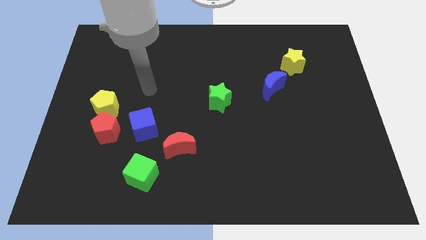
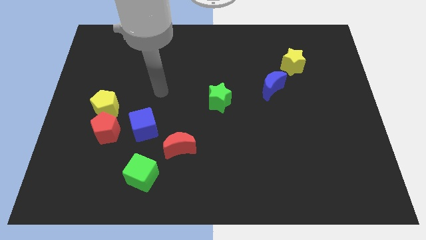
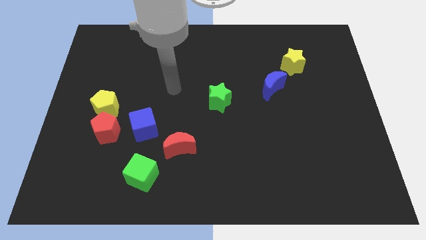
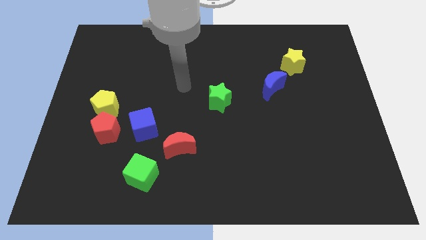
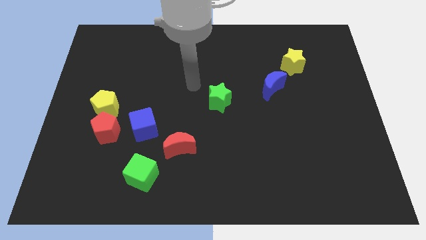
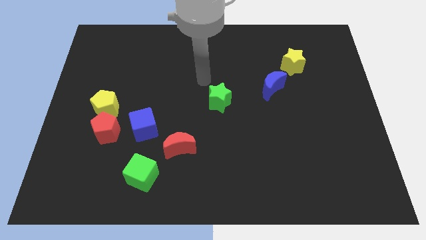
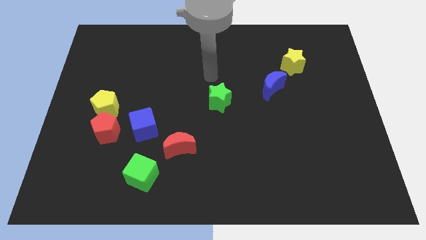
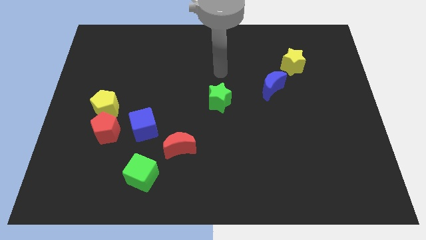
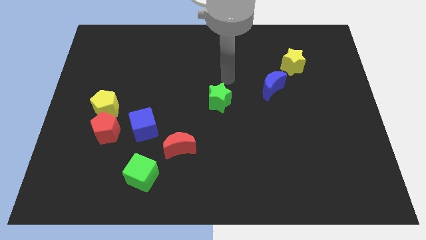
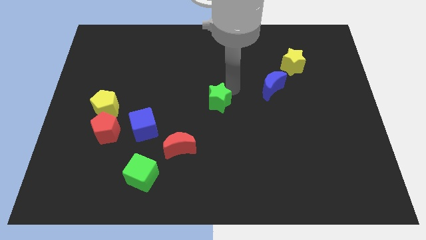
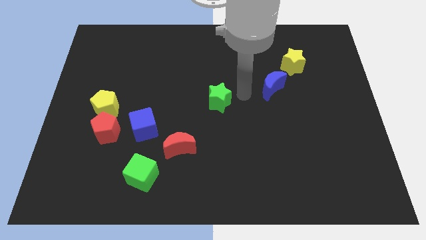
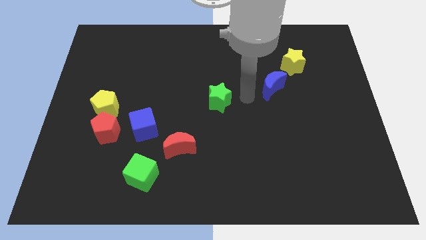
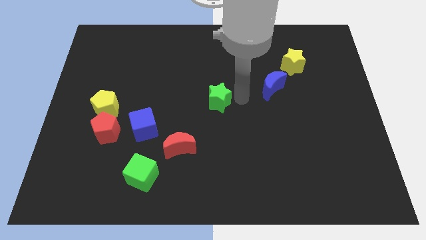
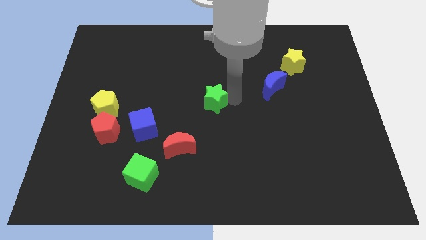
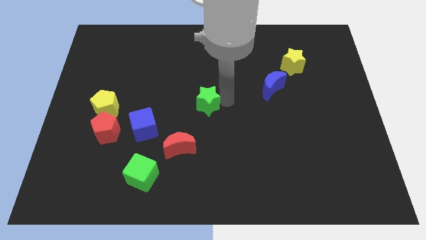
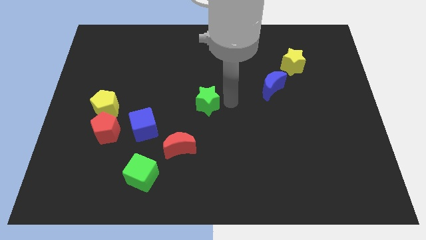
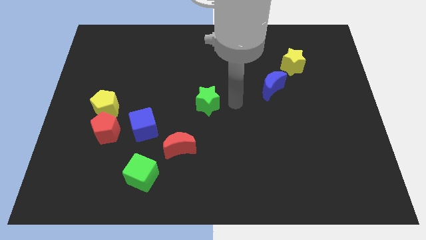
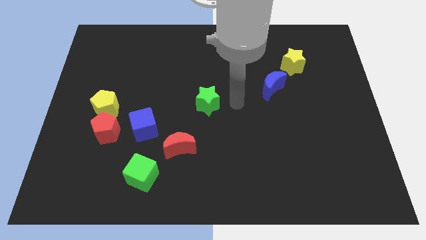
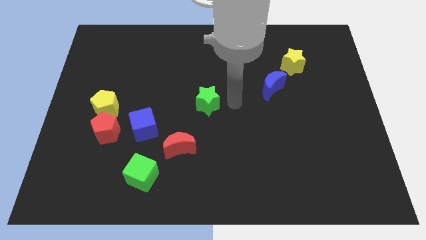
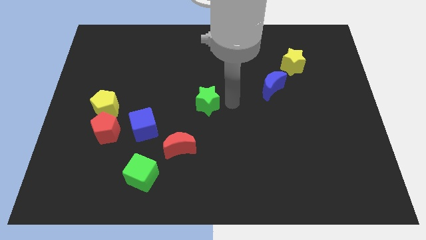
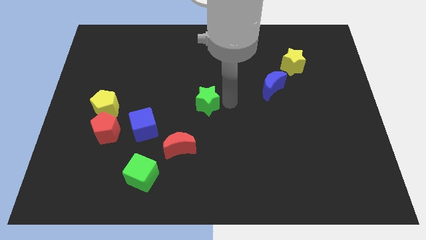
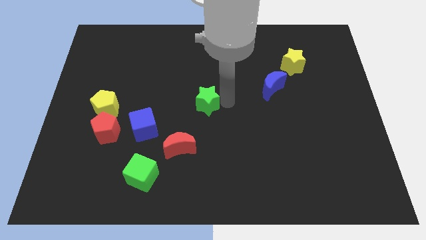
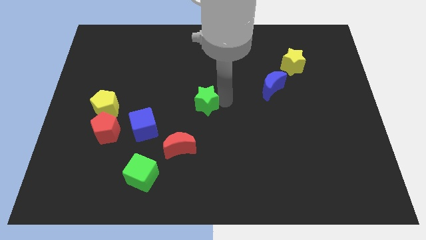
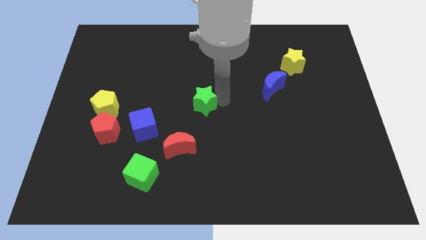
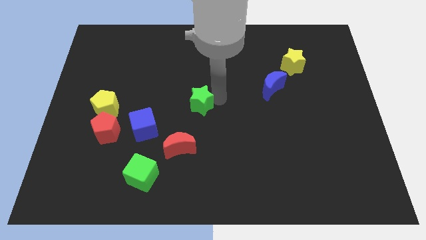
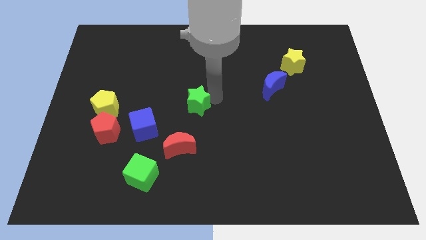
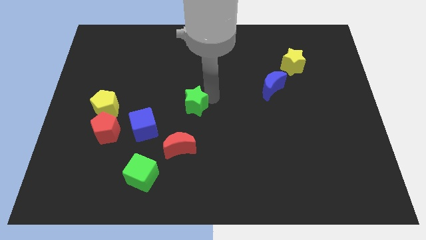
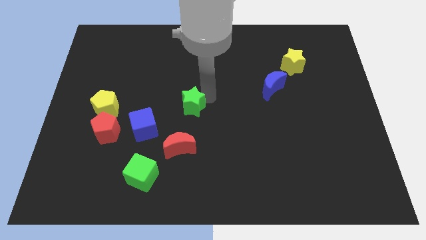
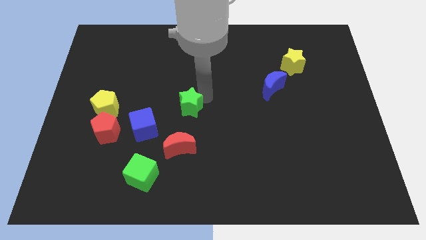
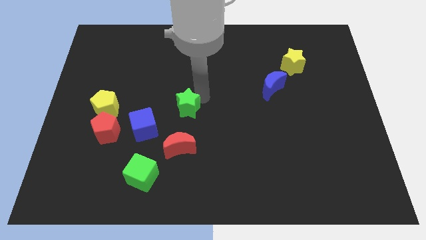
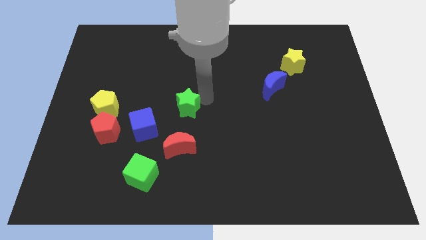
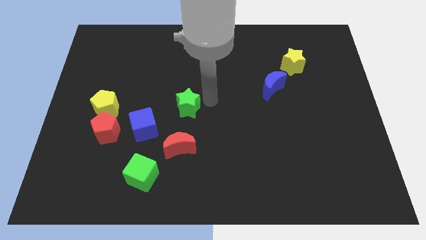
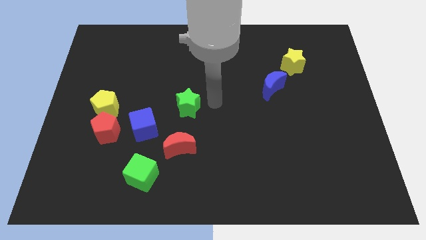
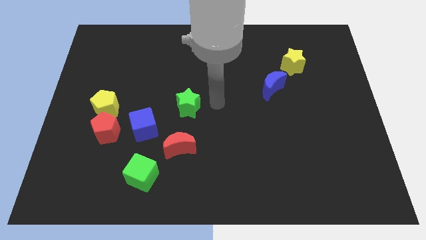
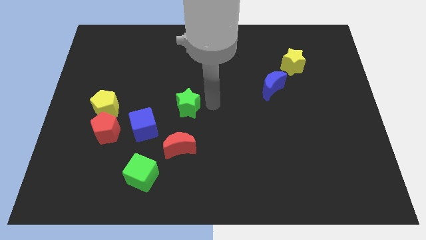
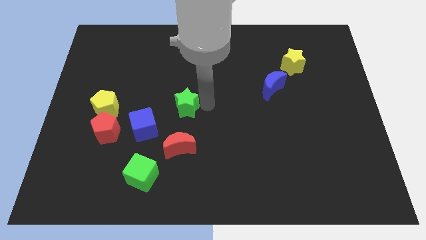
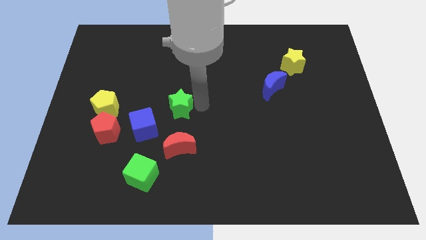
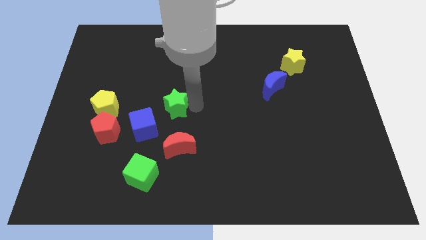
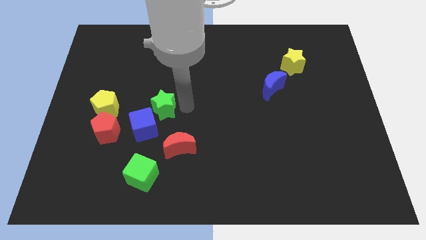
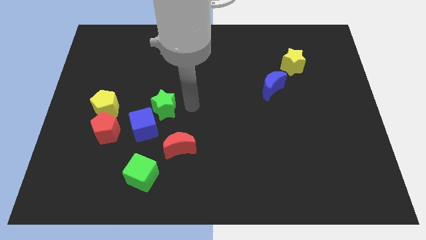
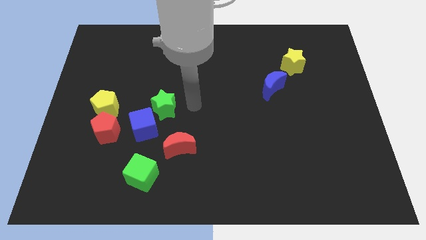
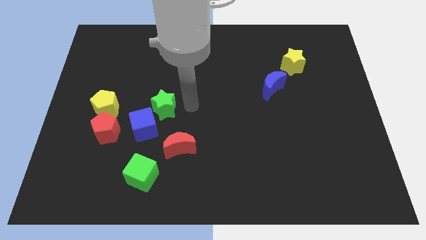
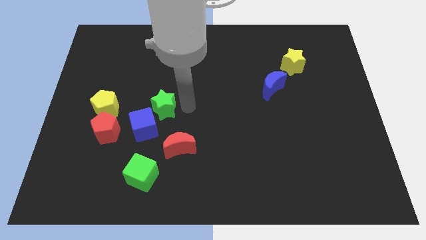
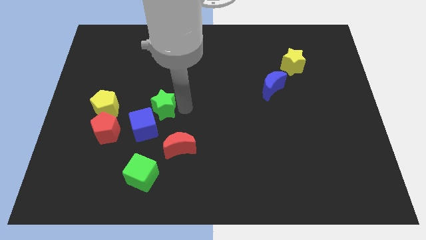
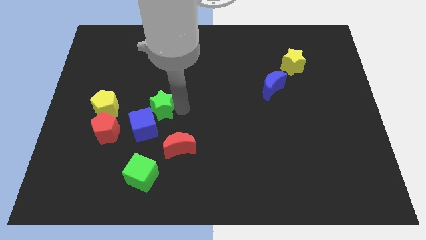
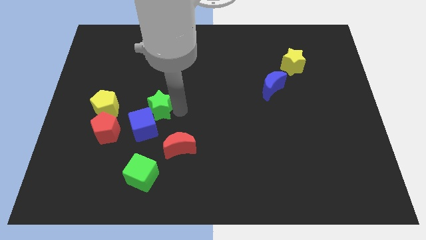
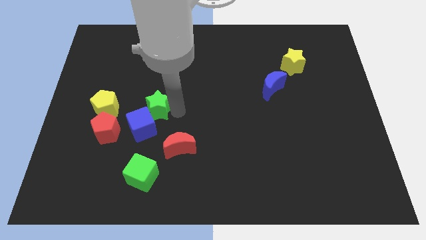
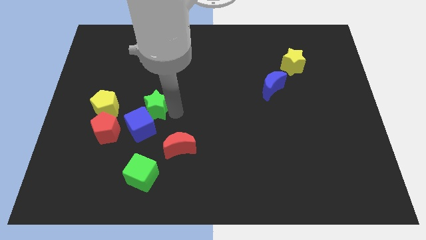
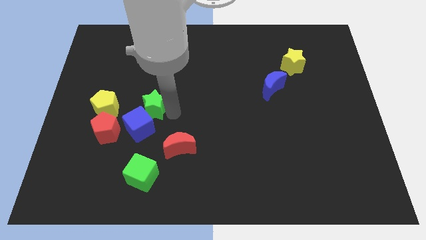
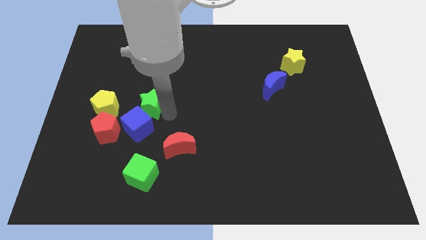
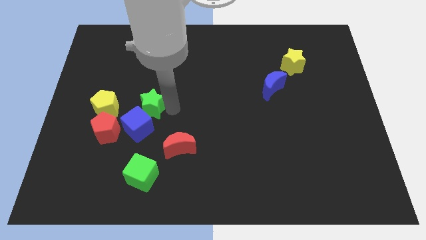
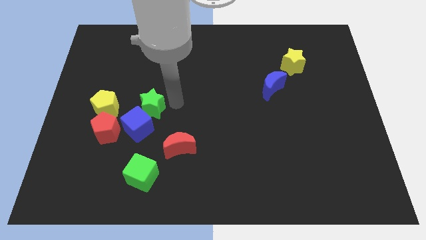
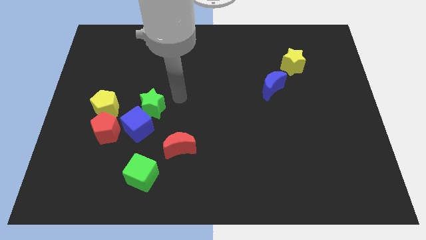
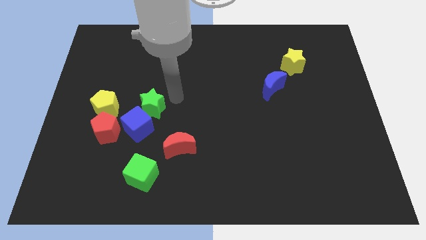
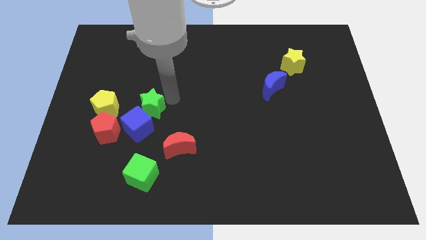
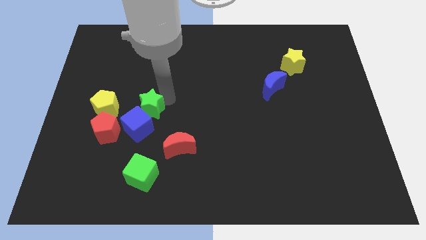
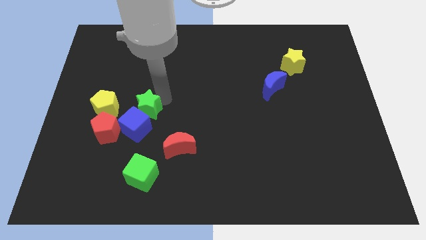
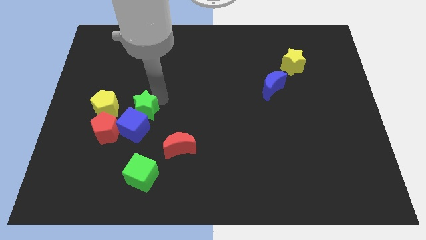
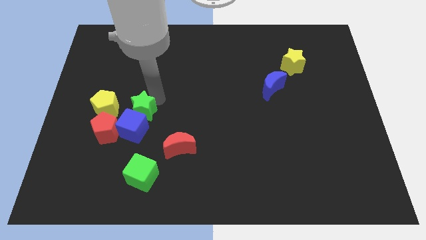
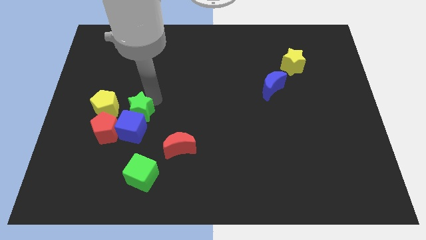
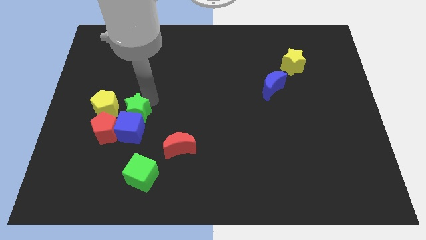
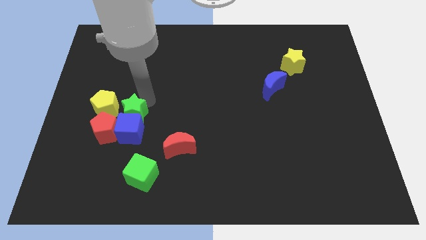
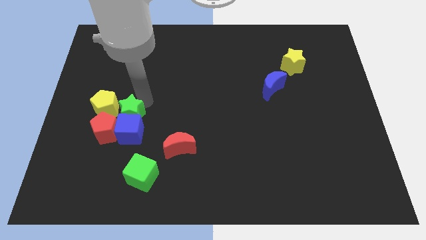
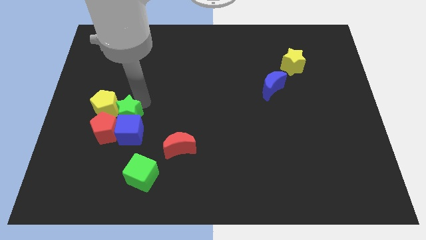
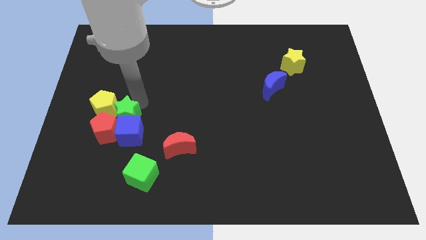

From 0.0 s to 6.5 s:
move the green star towards the red pentagon

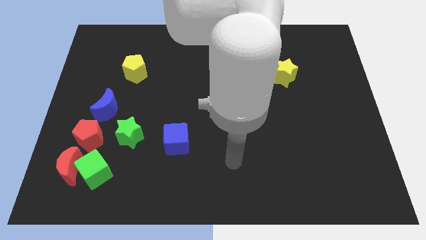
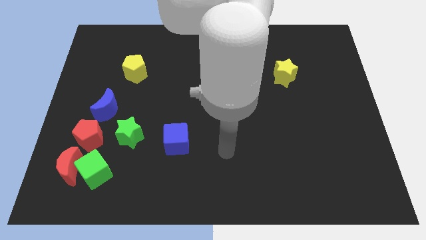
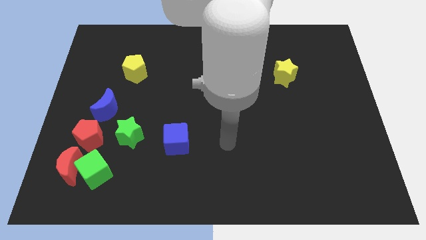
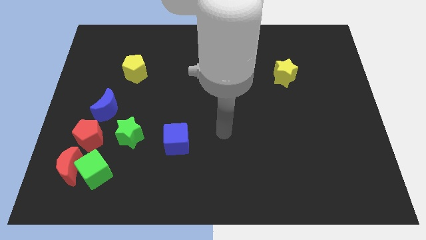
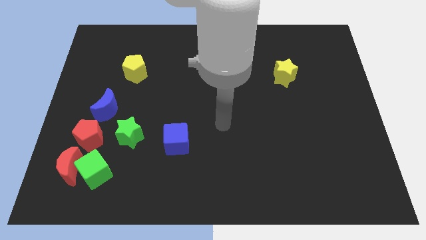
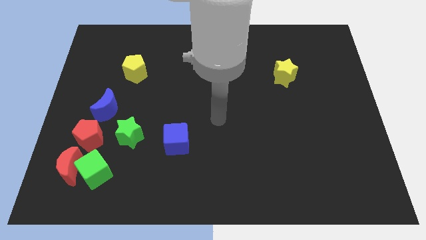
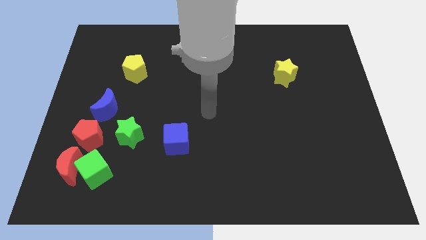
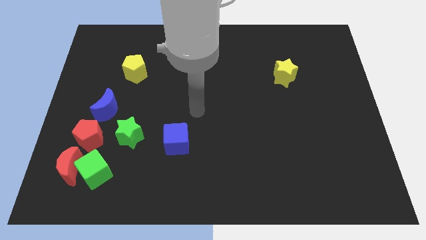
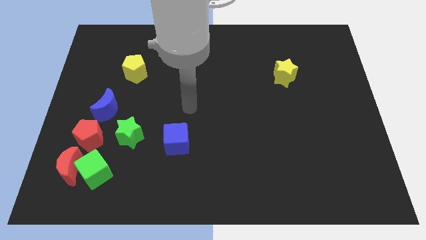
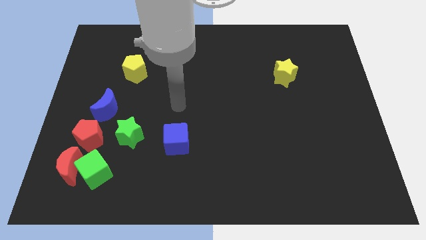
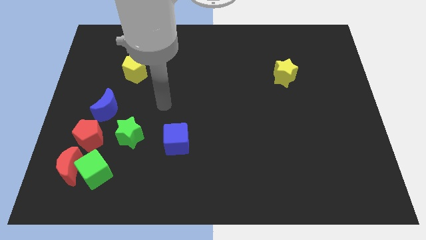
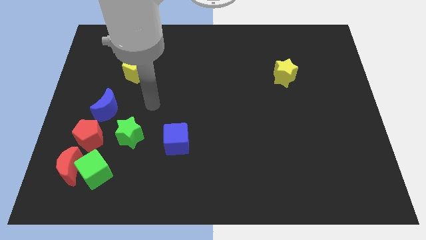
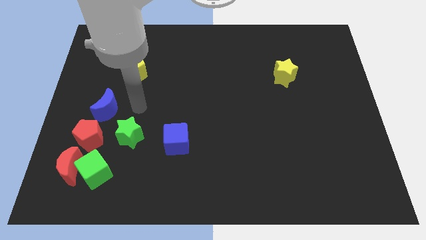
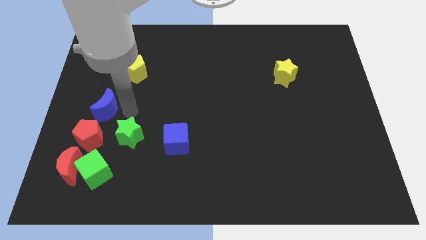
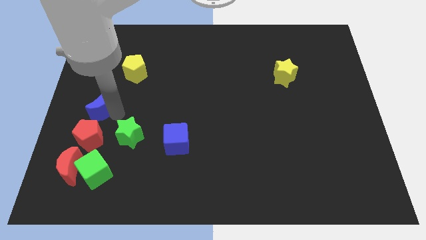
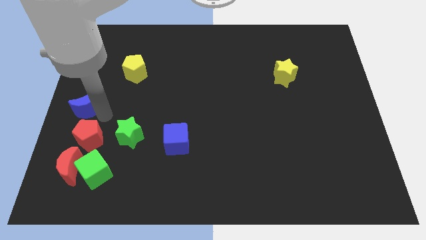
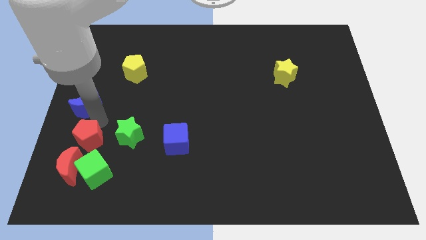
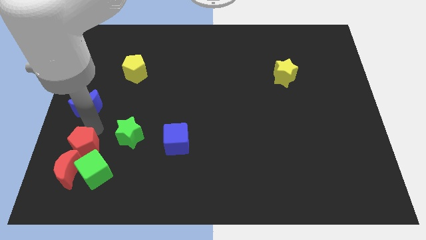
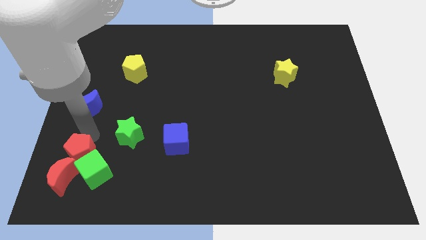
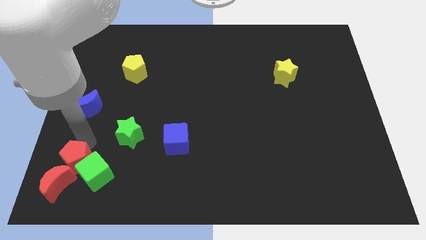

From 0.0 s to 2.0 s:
put the red pentagon to the red moon
